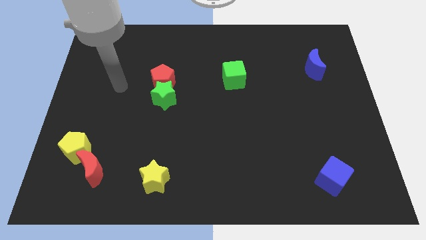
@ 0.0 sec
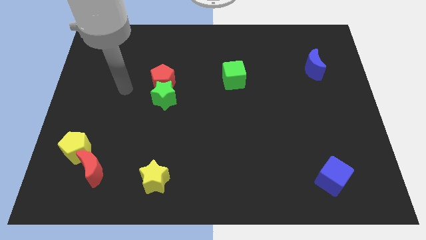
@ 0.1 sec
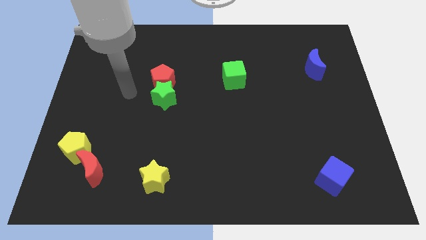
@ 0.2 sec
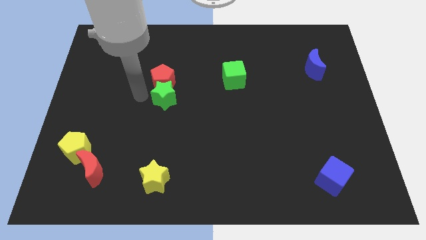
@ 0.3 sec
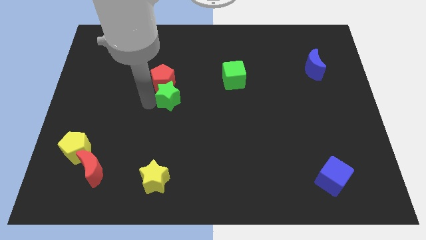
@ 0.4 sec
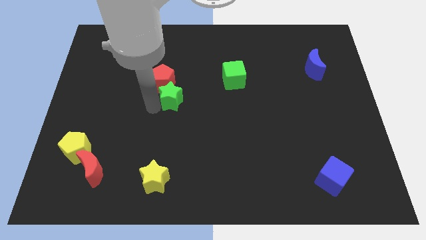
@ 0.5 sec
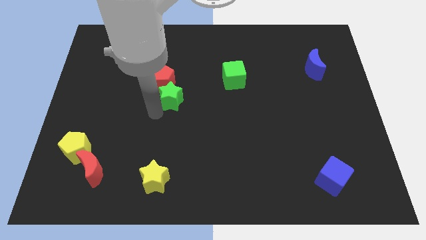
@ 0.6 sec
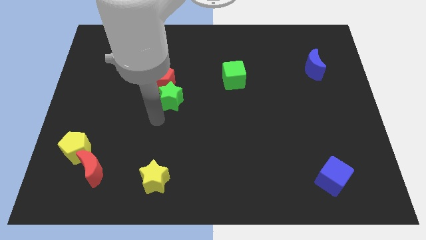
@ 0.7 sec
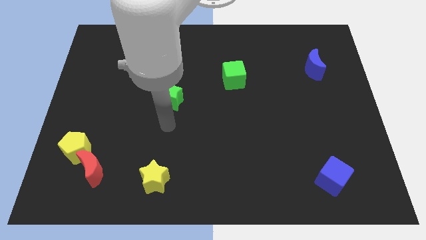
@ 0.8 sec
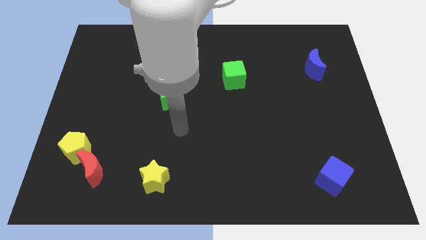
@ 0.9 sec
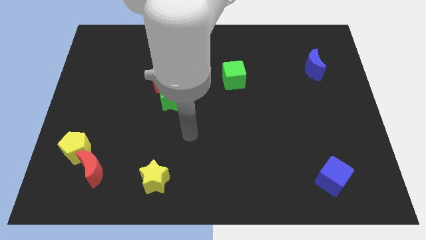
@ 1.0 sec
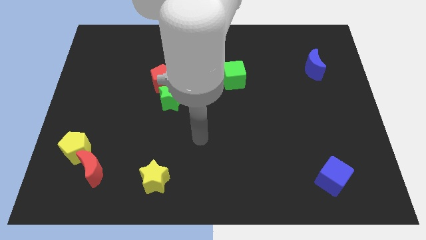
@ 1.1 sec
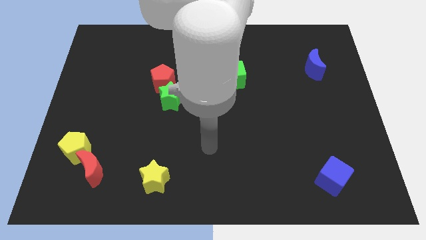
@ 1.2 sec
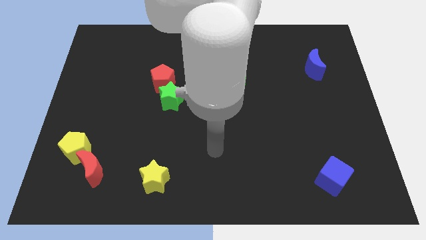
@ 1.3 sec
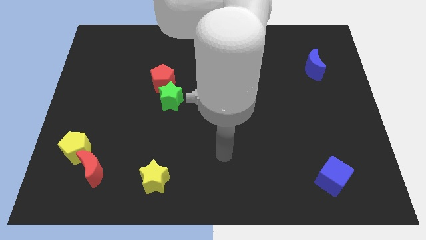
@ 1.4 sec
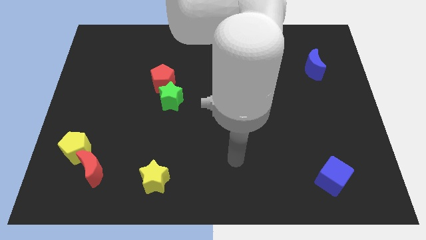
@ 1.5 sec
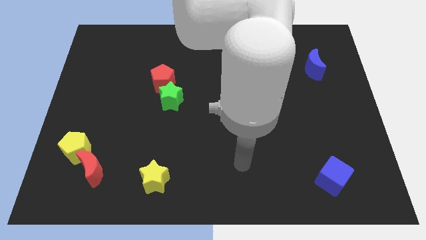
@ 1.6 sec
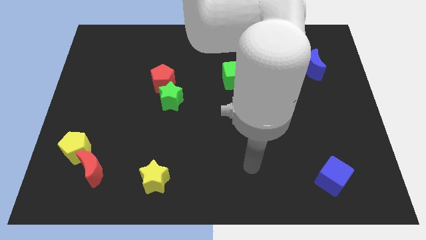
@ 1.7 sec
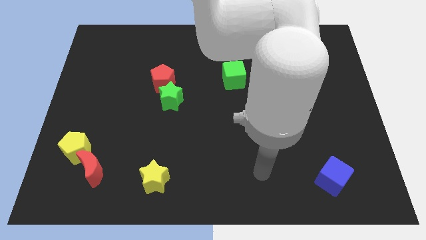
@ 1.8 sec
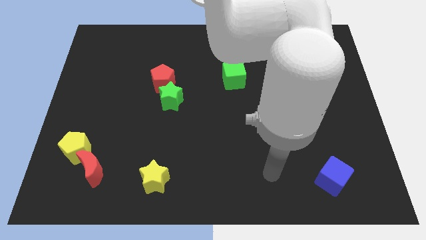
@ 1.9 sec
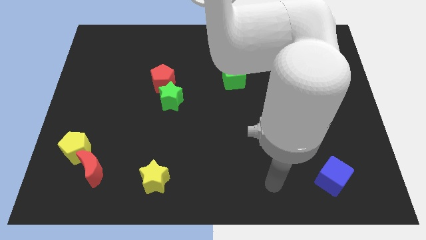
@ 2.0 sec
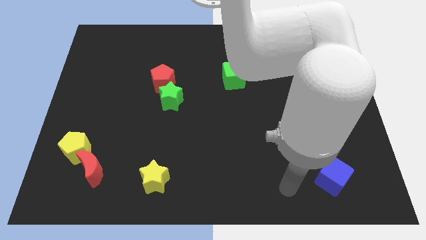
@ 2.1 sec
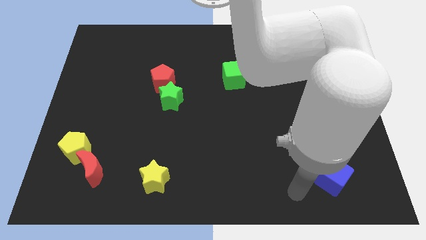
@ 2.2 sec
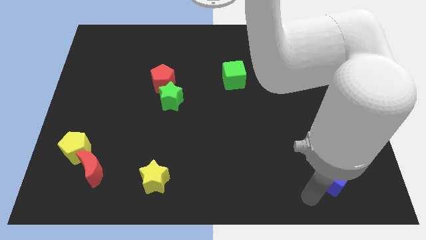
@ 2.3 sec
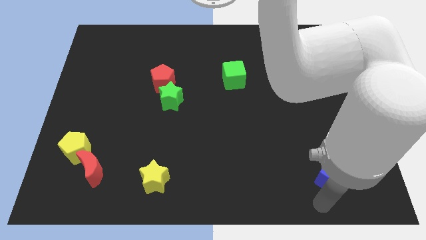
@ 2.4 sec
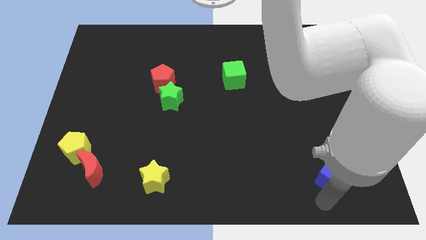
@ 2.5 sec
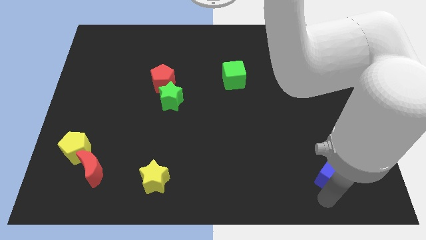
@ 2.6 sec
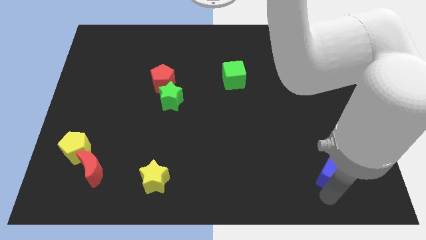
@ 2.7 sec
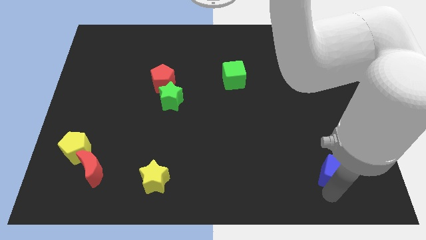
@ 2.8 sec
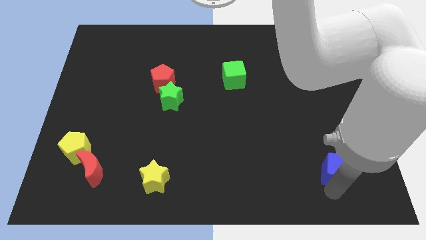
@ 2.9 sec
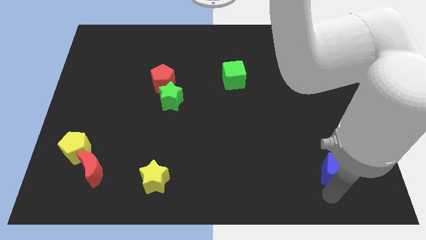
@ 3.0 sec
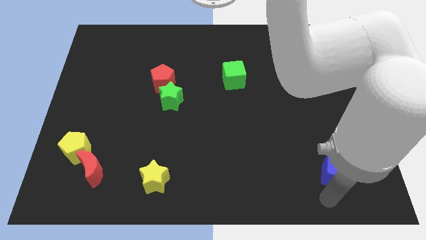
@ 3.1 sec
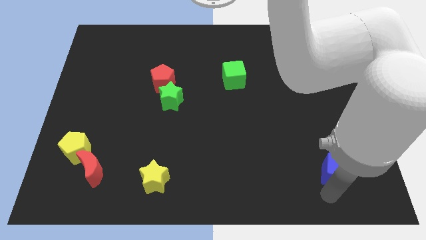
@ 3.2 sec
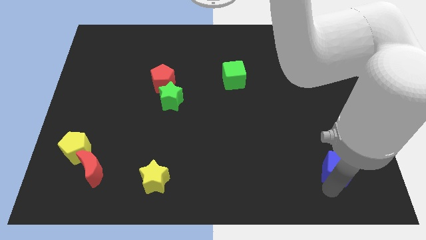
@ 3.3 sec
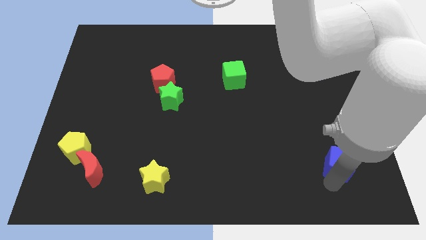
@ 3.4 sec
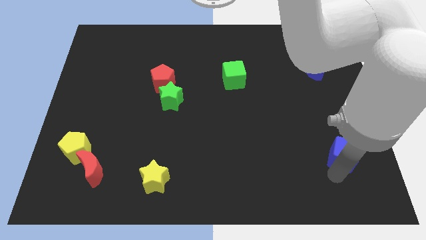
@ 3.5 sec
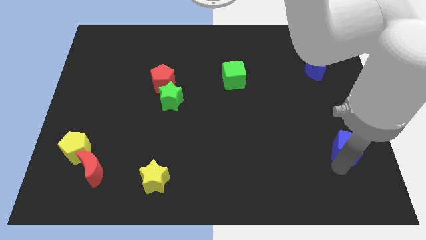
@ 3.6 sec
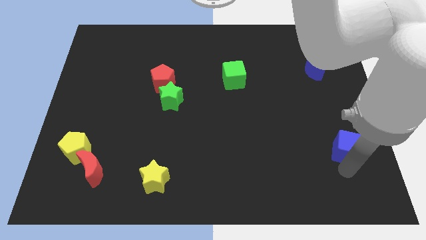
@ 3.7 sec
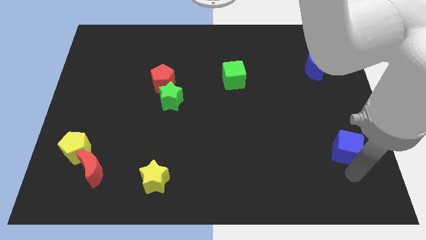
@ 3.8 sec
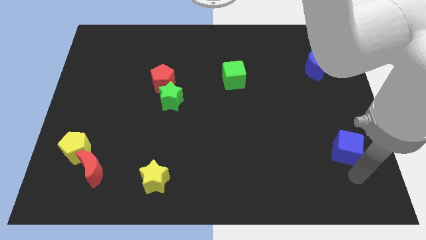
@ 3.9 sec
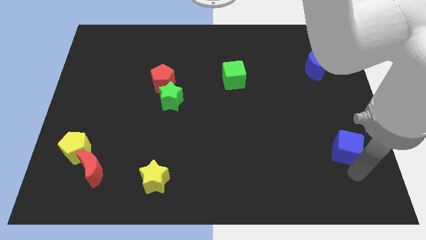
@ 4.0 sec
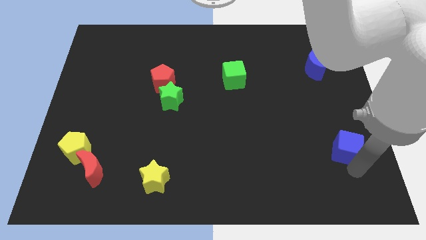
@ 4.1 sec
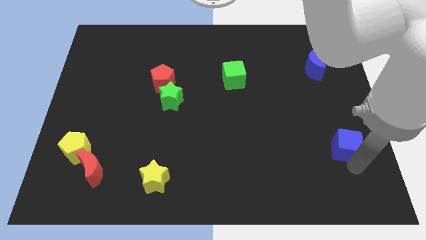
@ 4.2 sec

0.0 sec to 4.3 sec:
move the blue cube a little up

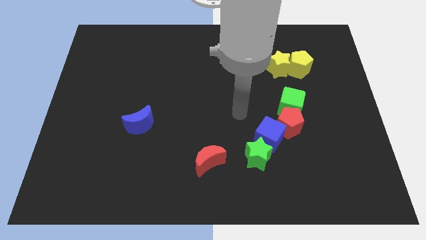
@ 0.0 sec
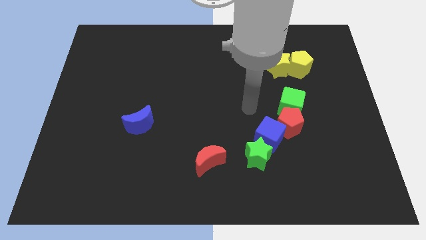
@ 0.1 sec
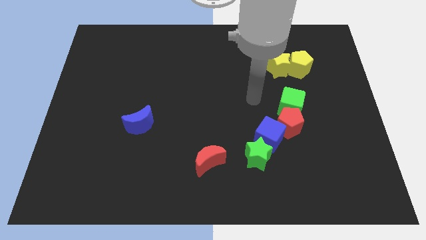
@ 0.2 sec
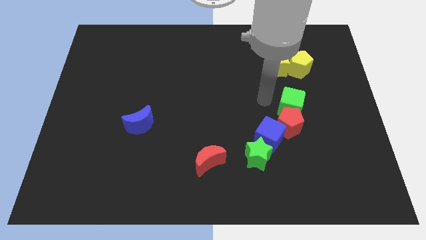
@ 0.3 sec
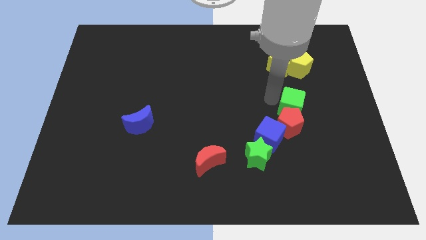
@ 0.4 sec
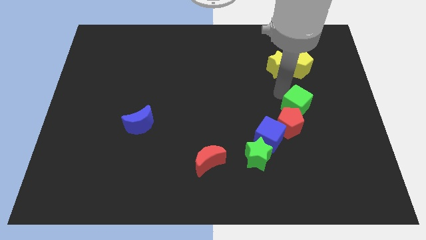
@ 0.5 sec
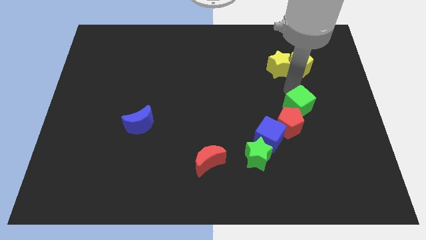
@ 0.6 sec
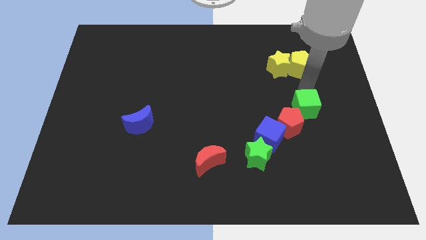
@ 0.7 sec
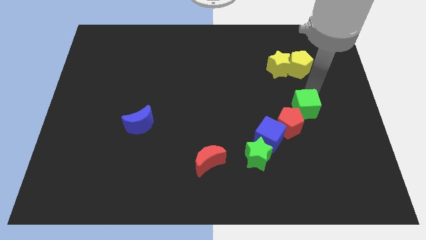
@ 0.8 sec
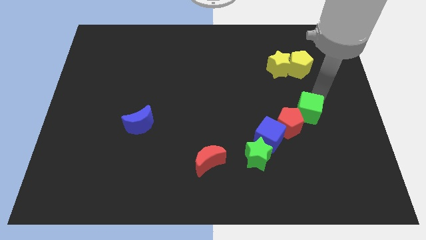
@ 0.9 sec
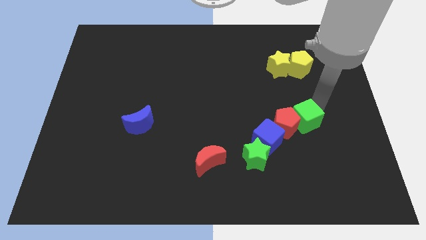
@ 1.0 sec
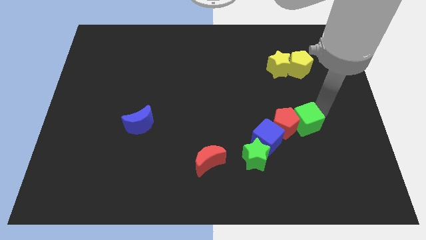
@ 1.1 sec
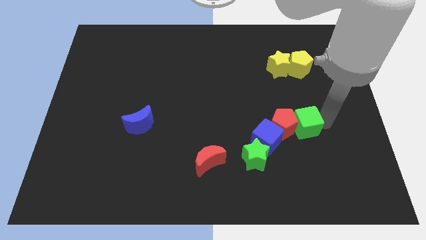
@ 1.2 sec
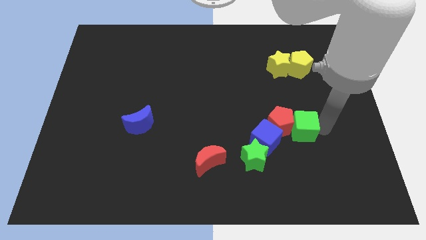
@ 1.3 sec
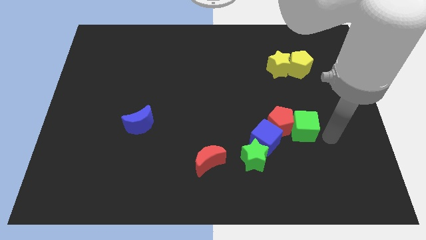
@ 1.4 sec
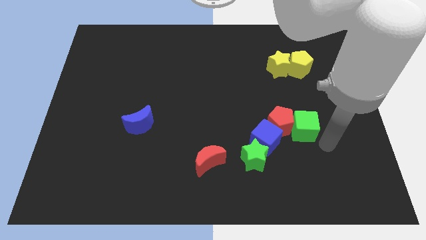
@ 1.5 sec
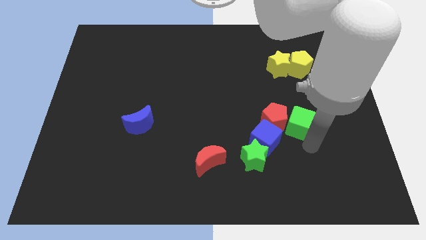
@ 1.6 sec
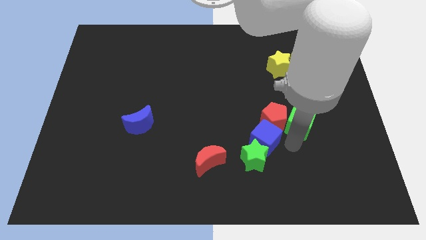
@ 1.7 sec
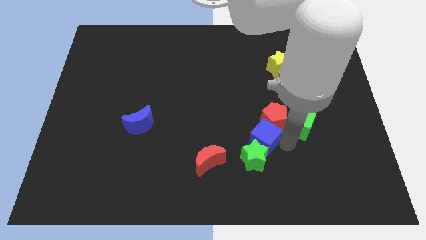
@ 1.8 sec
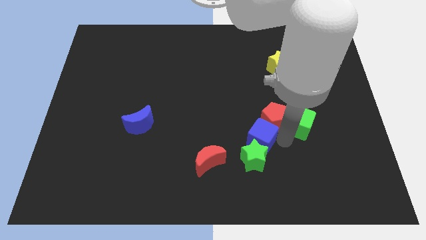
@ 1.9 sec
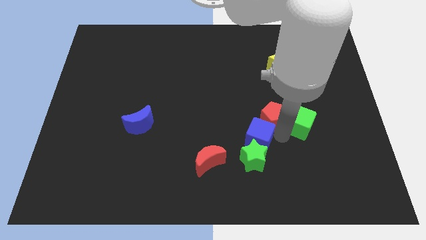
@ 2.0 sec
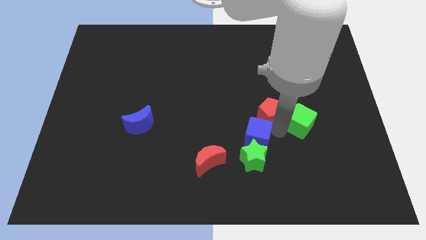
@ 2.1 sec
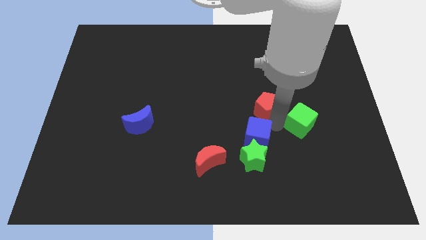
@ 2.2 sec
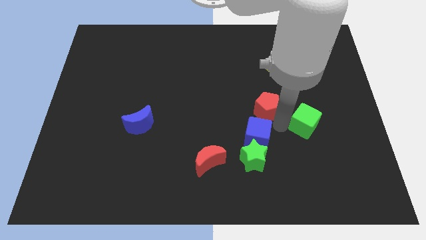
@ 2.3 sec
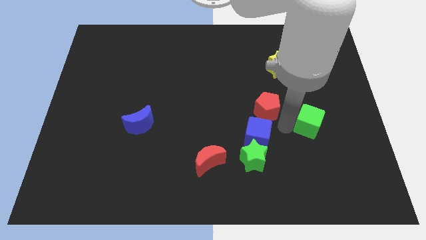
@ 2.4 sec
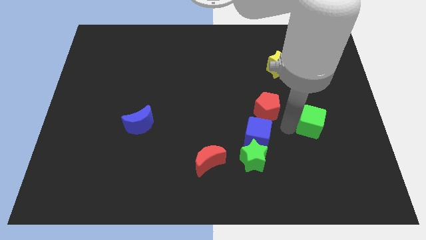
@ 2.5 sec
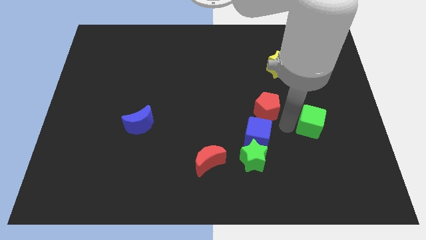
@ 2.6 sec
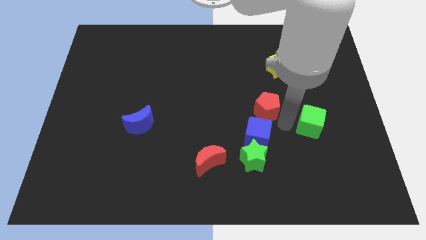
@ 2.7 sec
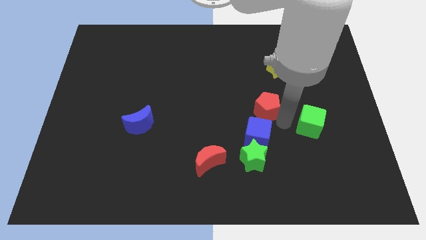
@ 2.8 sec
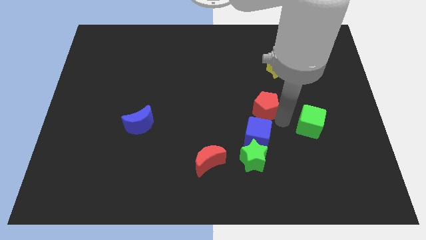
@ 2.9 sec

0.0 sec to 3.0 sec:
move the red pentagon slightly up and to the left
